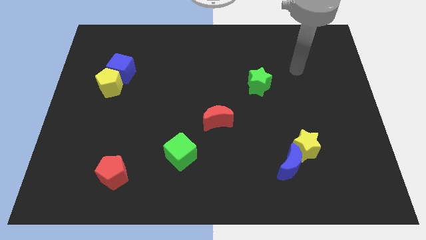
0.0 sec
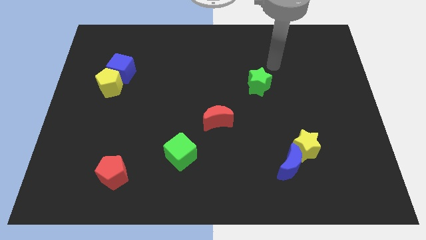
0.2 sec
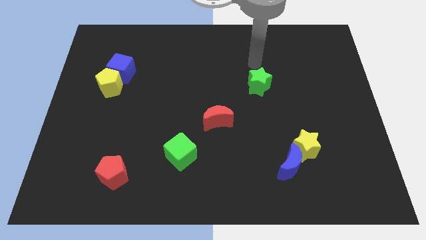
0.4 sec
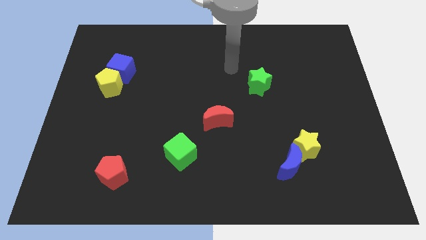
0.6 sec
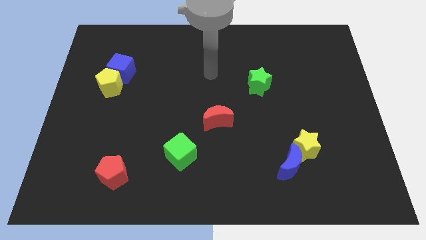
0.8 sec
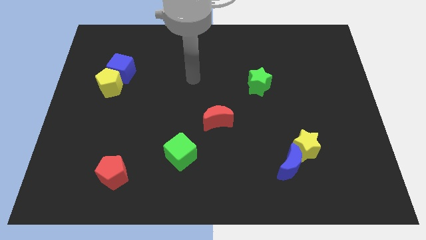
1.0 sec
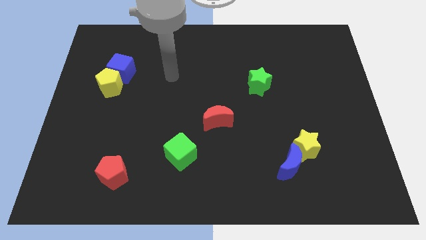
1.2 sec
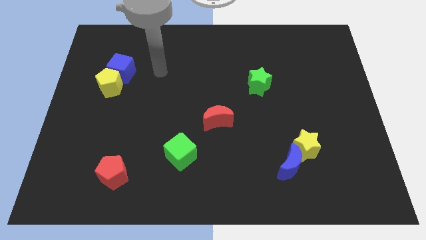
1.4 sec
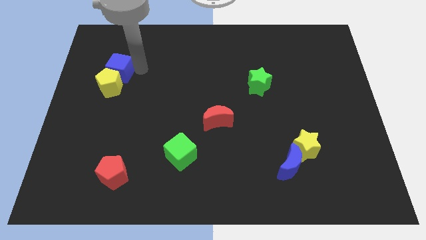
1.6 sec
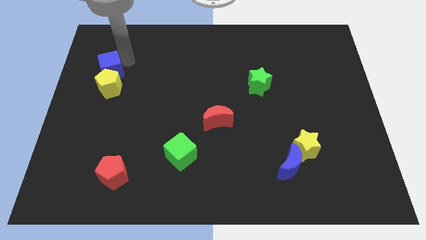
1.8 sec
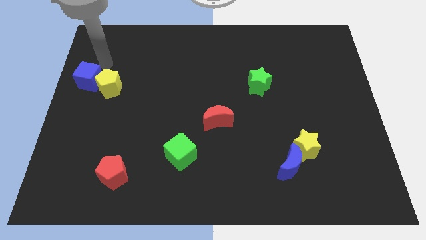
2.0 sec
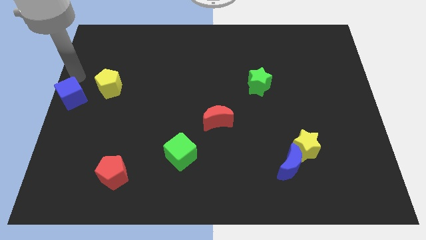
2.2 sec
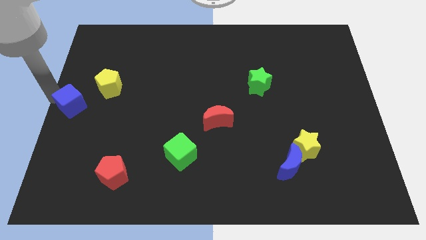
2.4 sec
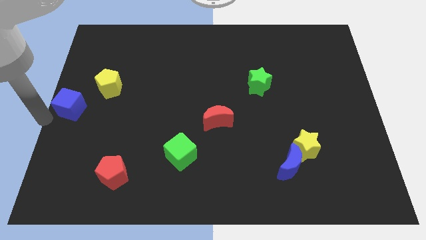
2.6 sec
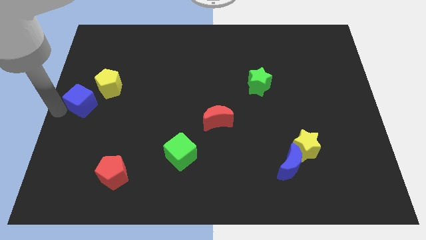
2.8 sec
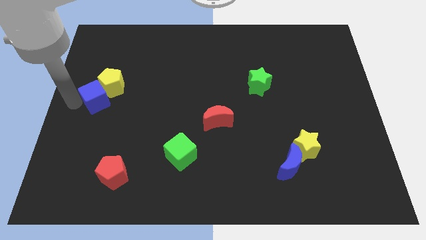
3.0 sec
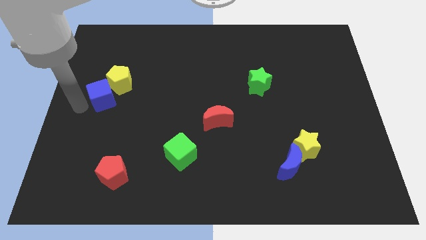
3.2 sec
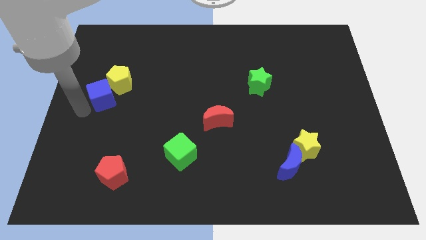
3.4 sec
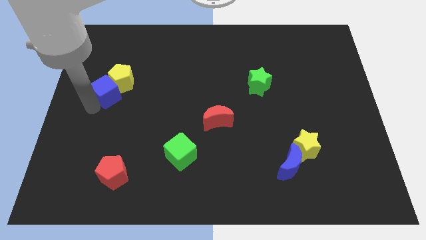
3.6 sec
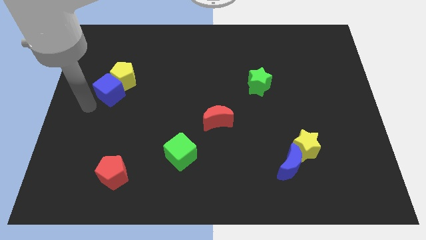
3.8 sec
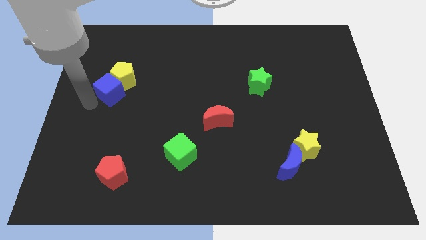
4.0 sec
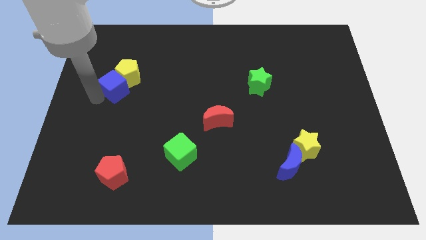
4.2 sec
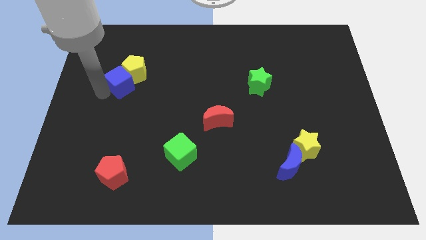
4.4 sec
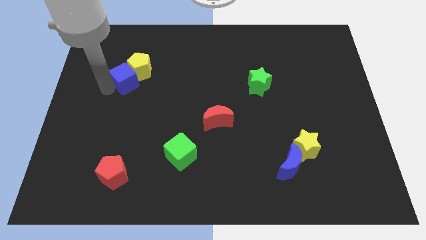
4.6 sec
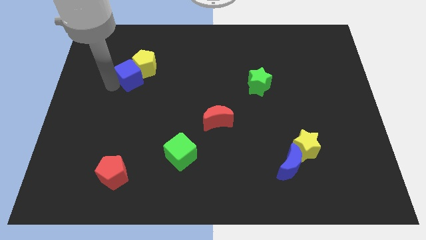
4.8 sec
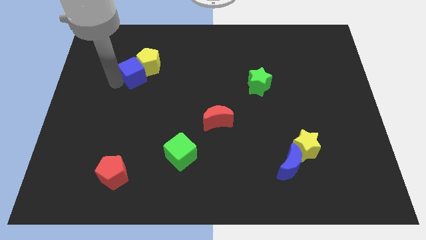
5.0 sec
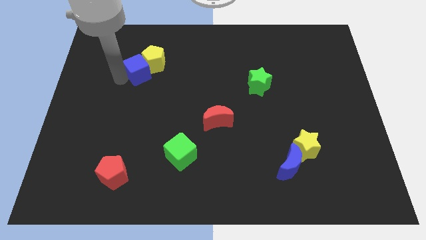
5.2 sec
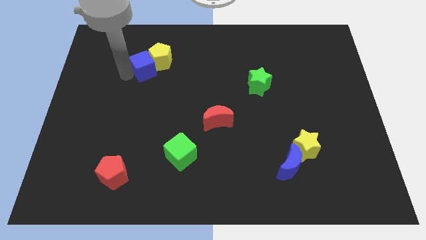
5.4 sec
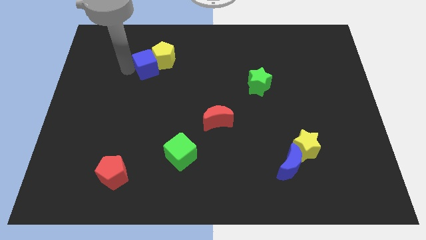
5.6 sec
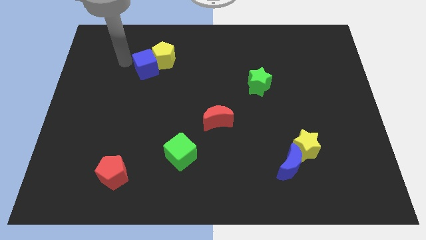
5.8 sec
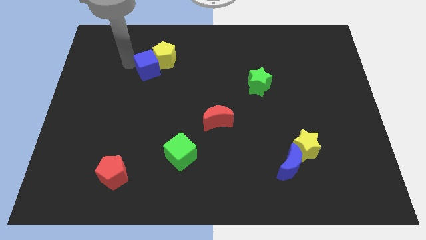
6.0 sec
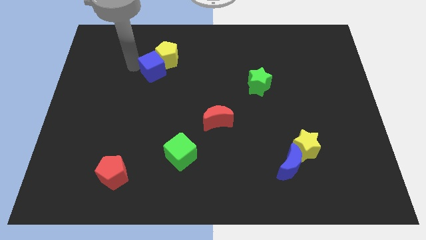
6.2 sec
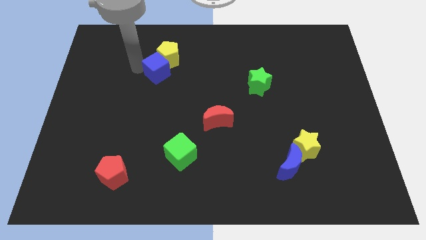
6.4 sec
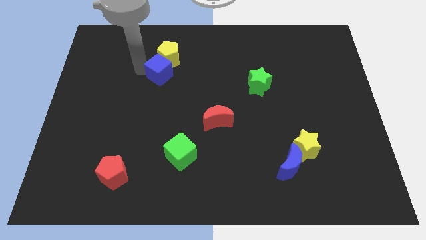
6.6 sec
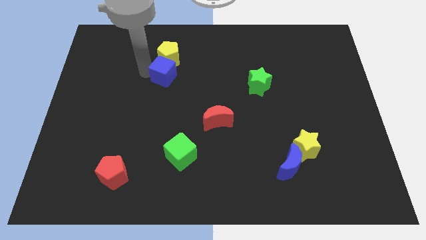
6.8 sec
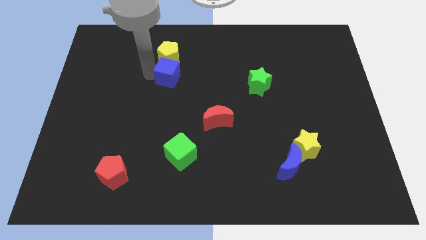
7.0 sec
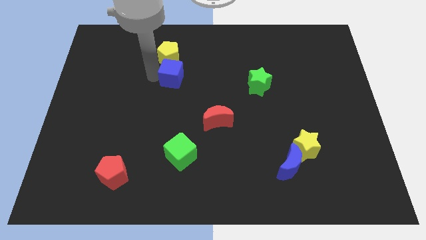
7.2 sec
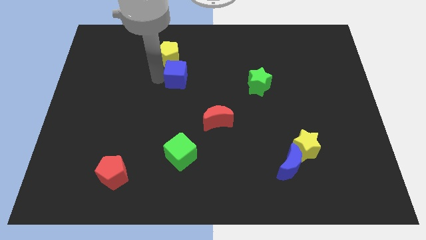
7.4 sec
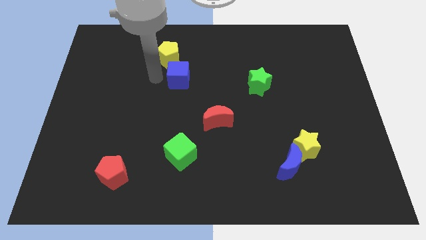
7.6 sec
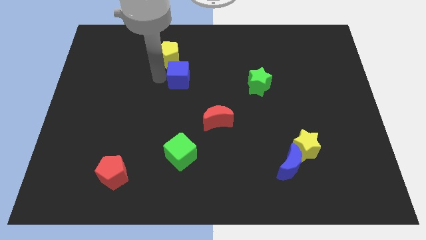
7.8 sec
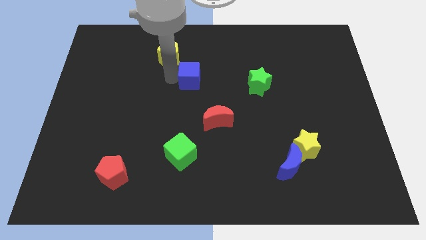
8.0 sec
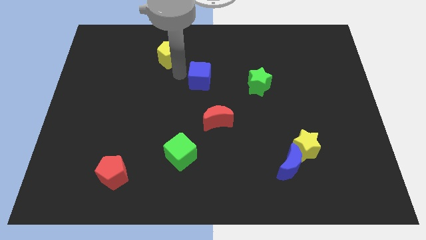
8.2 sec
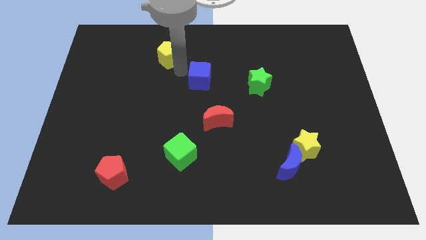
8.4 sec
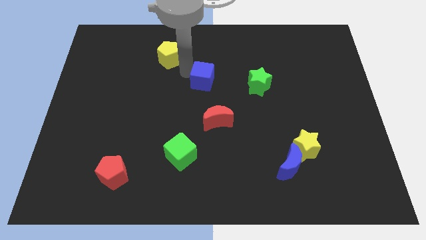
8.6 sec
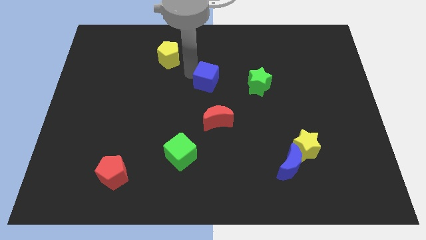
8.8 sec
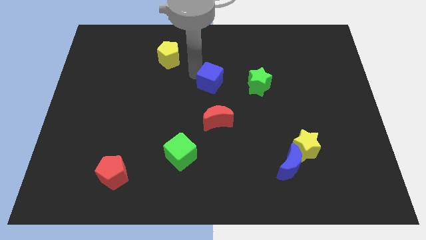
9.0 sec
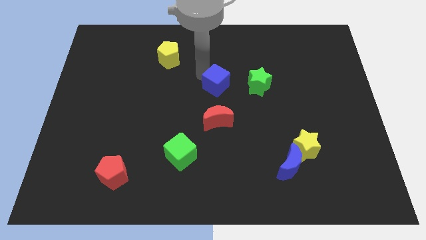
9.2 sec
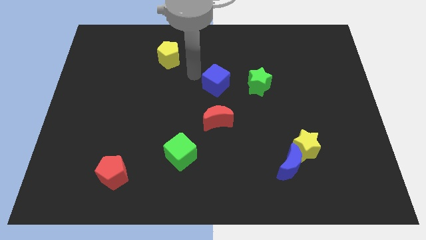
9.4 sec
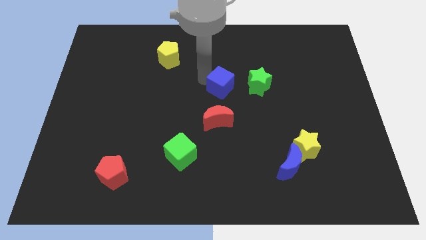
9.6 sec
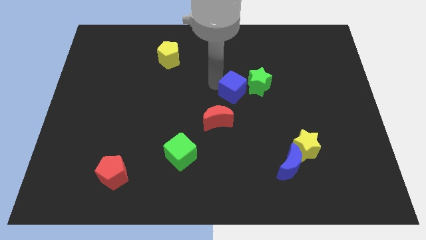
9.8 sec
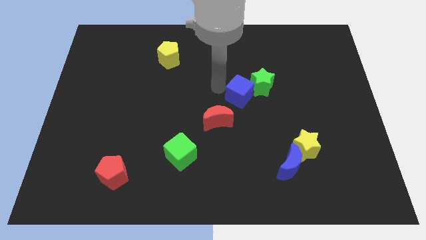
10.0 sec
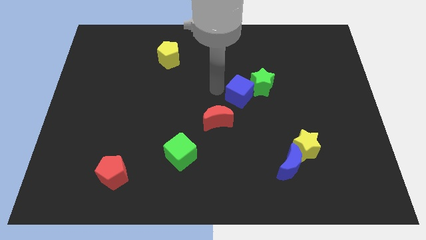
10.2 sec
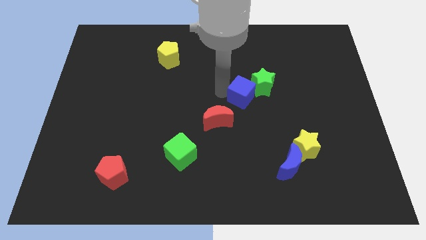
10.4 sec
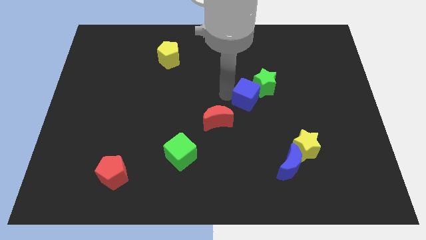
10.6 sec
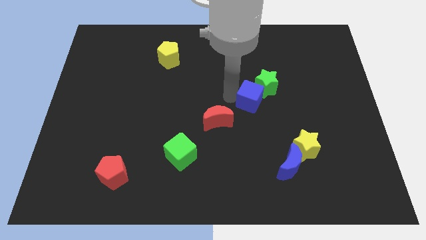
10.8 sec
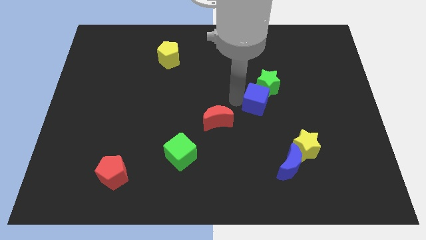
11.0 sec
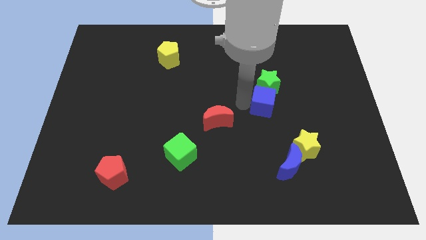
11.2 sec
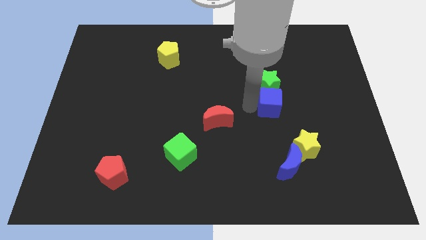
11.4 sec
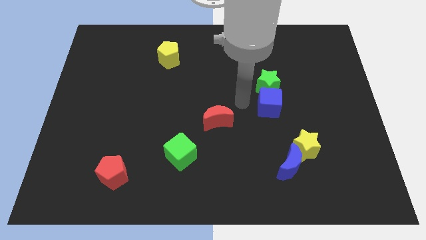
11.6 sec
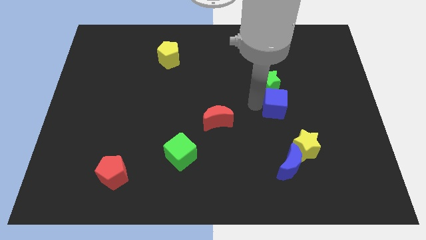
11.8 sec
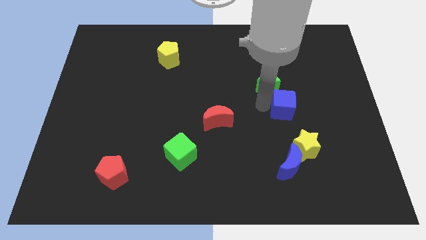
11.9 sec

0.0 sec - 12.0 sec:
slide the blue cube to the top of the yellow star

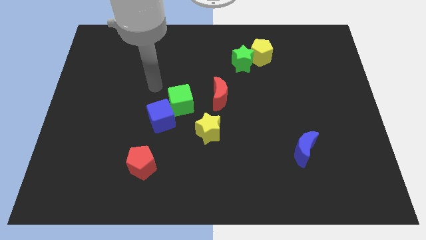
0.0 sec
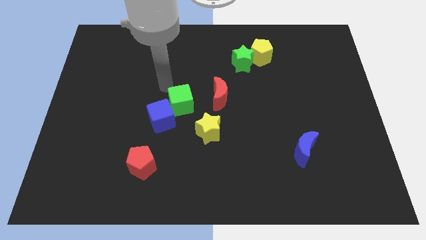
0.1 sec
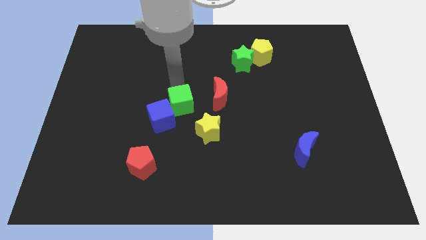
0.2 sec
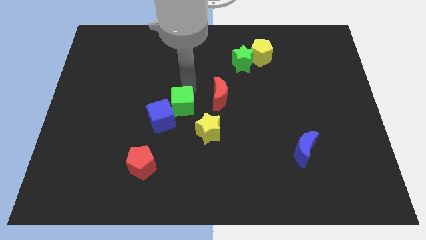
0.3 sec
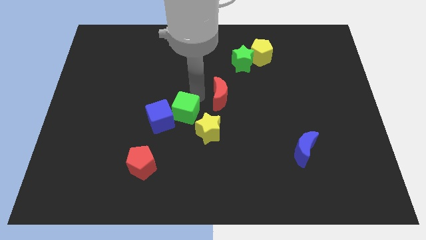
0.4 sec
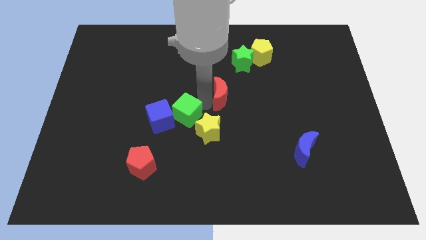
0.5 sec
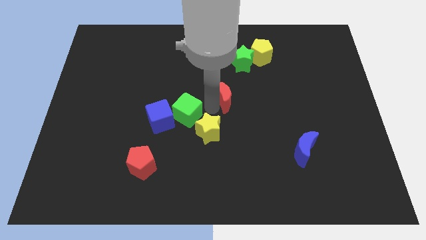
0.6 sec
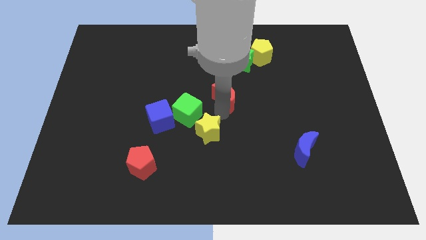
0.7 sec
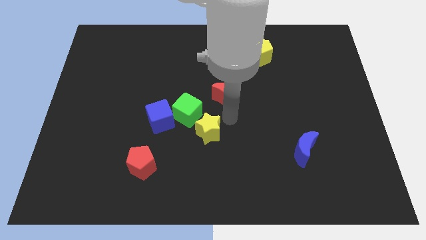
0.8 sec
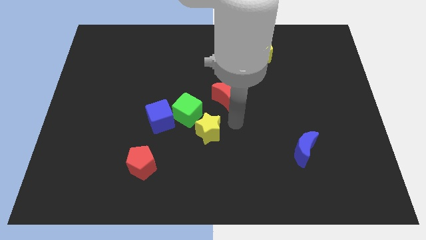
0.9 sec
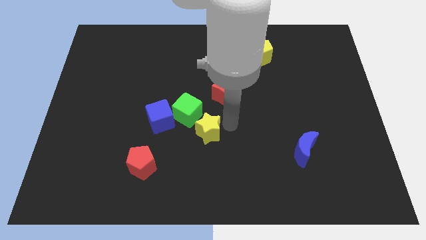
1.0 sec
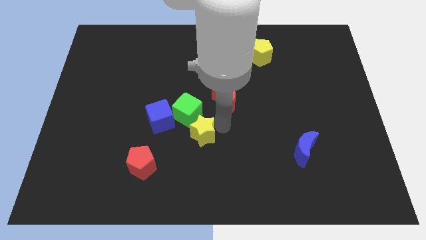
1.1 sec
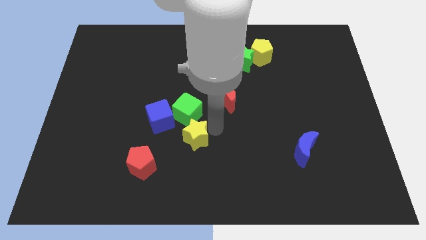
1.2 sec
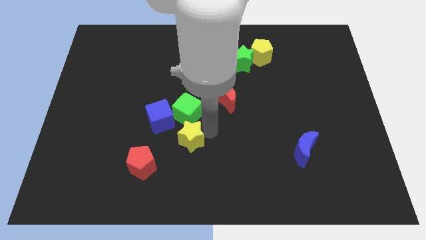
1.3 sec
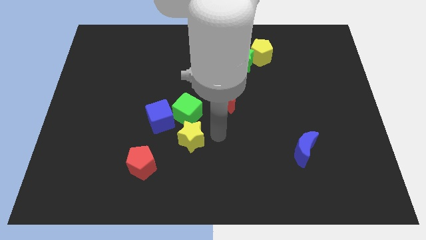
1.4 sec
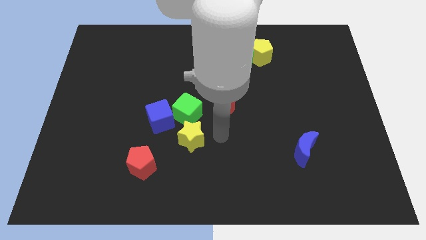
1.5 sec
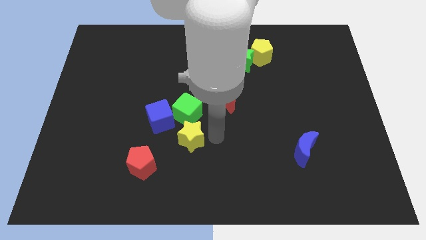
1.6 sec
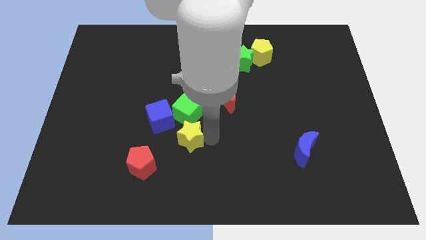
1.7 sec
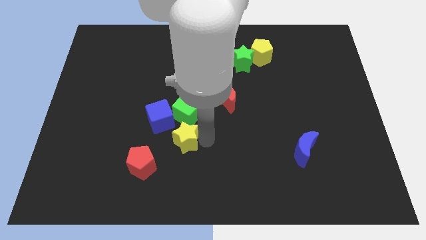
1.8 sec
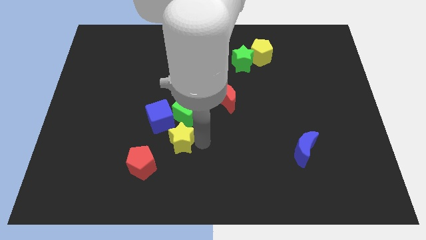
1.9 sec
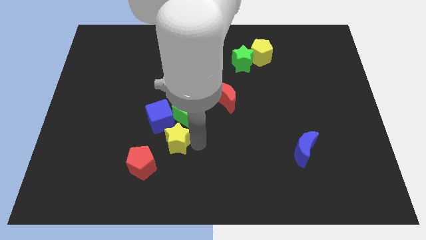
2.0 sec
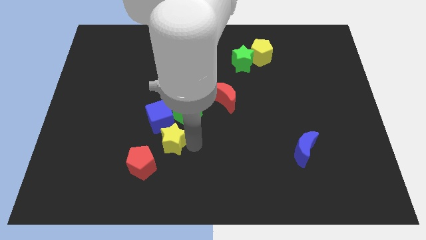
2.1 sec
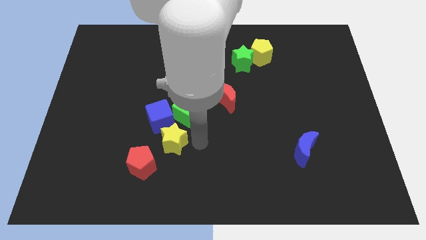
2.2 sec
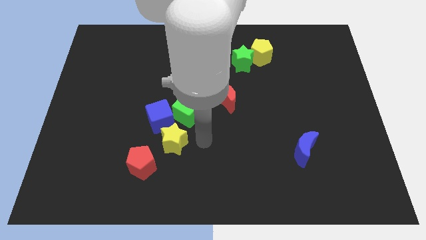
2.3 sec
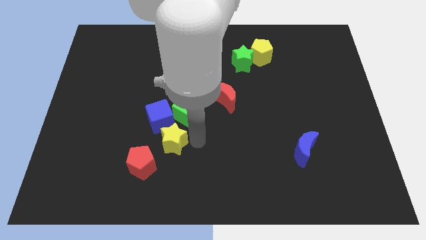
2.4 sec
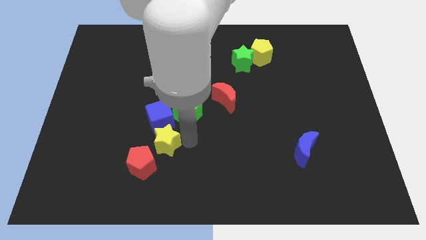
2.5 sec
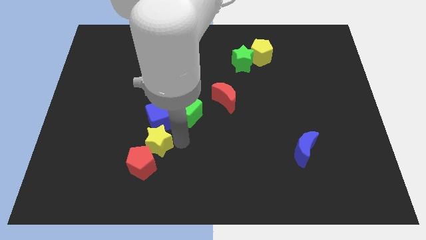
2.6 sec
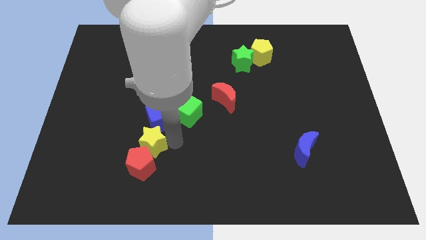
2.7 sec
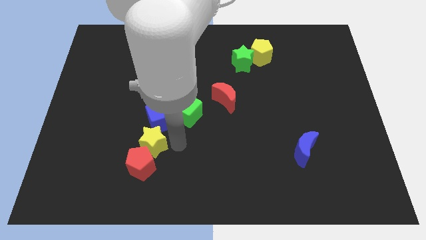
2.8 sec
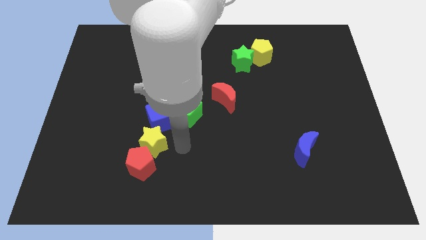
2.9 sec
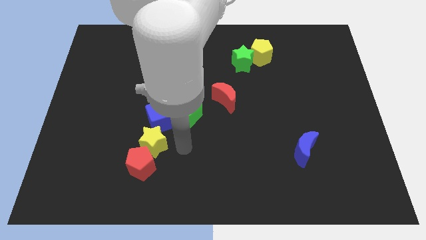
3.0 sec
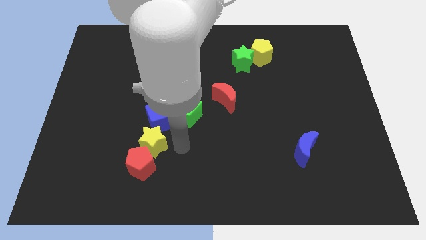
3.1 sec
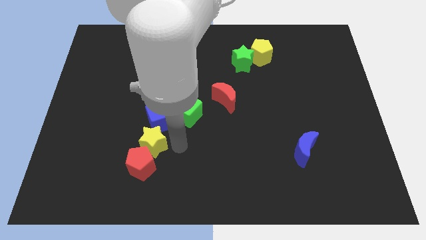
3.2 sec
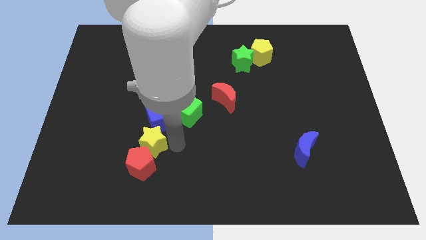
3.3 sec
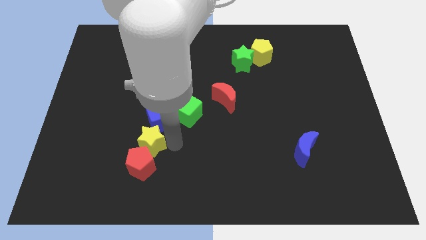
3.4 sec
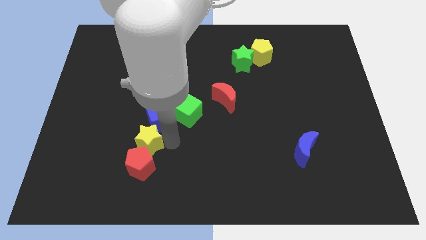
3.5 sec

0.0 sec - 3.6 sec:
put the yellow star to the top left side of the red pentagon
